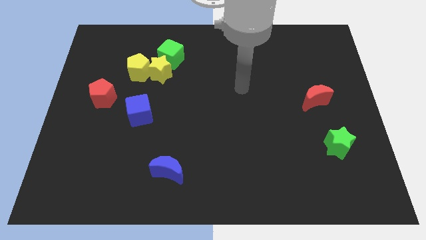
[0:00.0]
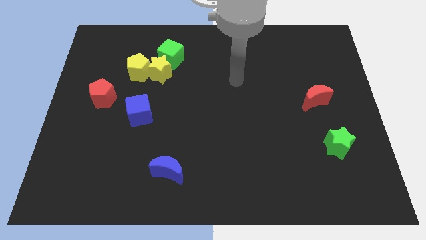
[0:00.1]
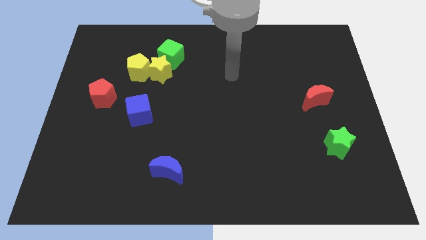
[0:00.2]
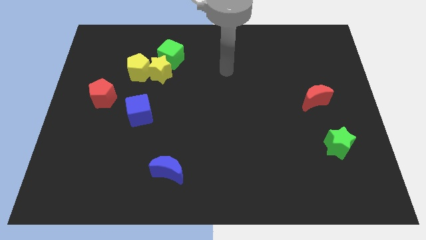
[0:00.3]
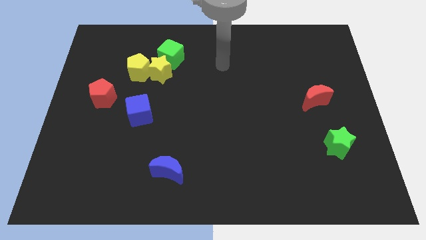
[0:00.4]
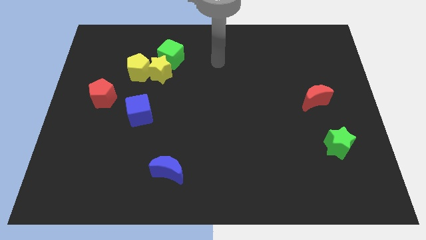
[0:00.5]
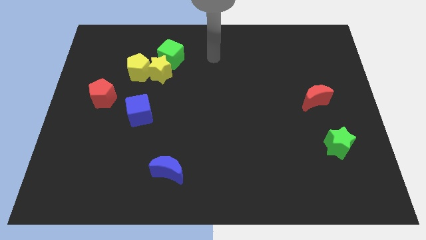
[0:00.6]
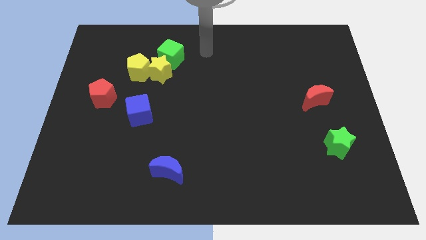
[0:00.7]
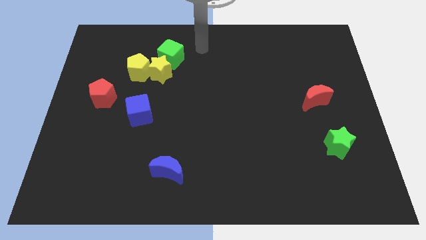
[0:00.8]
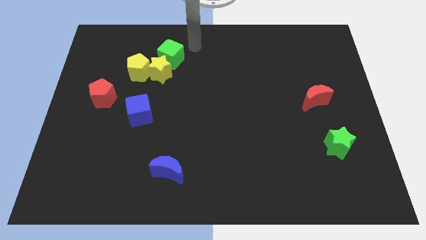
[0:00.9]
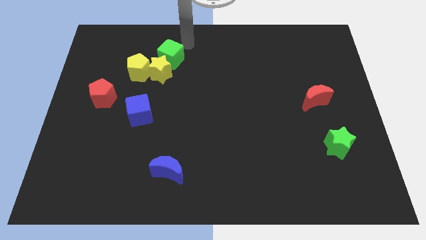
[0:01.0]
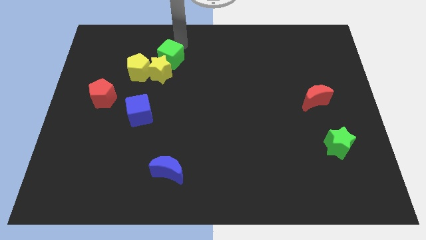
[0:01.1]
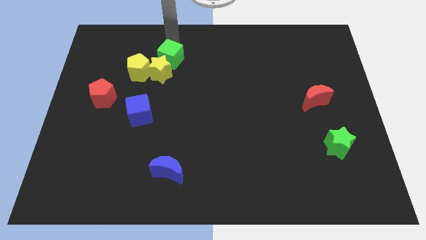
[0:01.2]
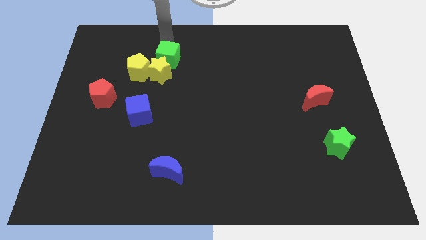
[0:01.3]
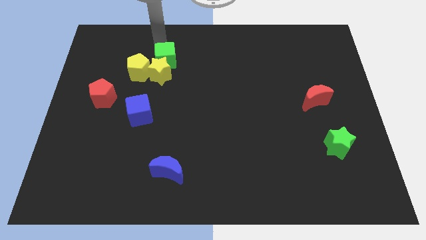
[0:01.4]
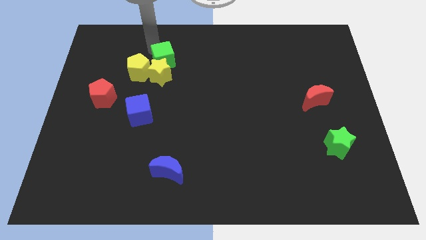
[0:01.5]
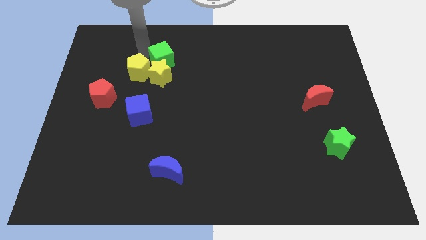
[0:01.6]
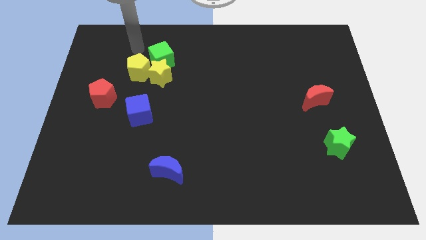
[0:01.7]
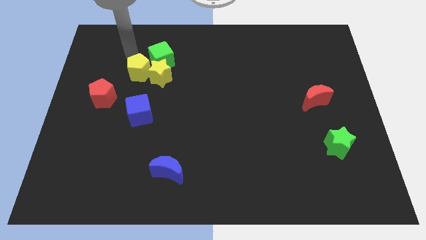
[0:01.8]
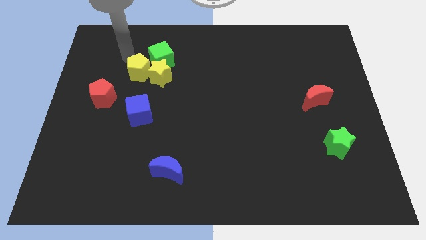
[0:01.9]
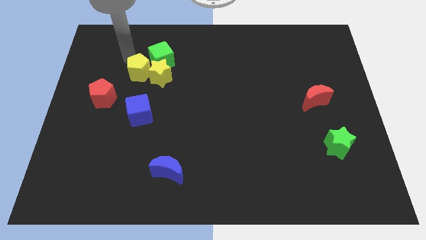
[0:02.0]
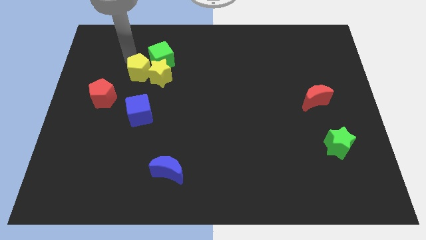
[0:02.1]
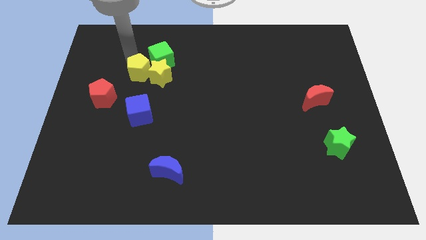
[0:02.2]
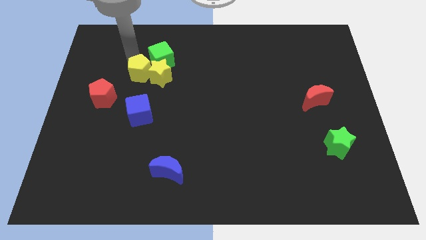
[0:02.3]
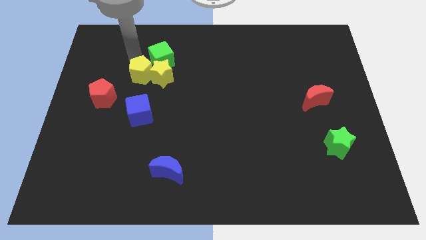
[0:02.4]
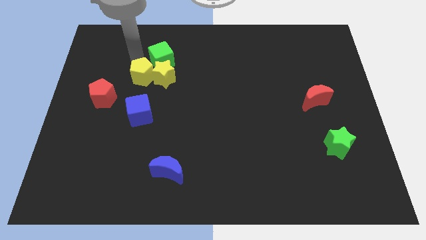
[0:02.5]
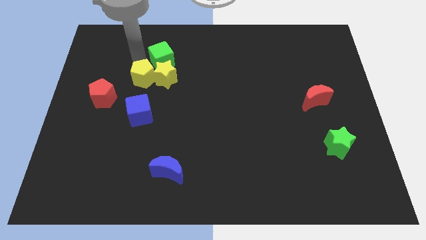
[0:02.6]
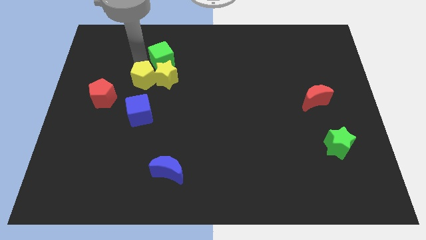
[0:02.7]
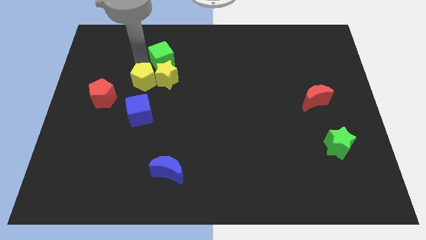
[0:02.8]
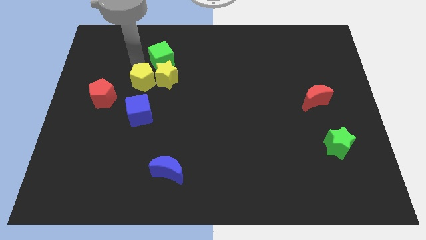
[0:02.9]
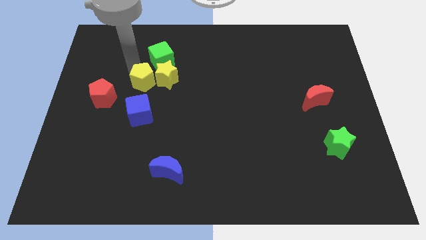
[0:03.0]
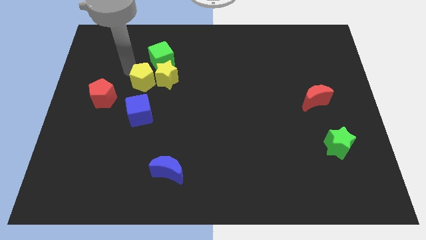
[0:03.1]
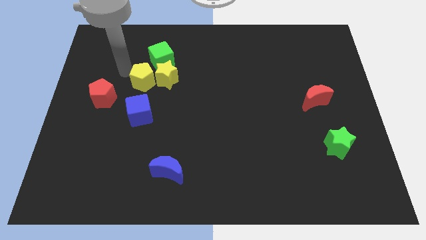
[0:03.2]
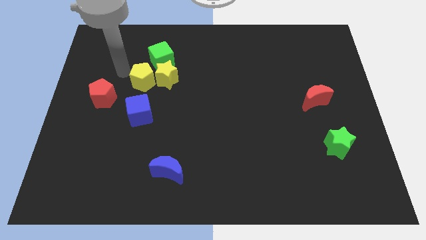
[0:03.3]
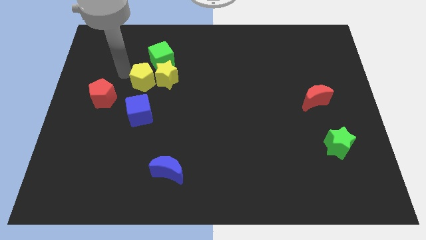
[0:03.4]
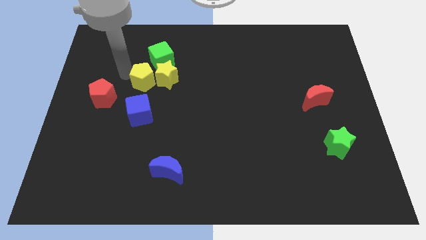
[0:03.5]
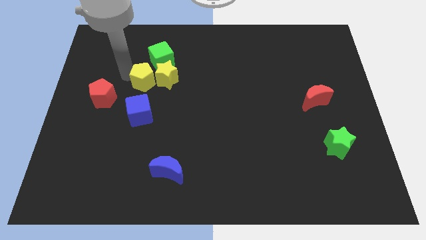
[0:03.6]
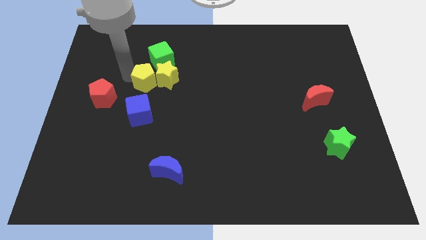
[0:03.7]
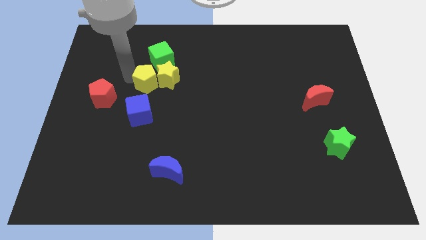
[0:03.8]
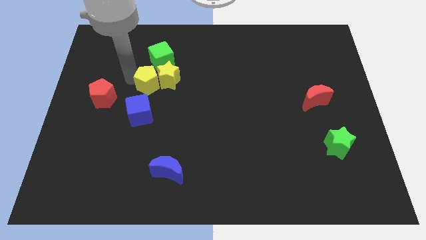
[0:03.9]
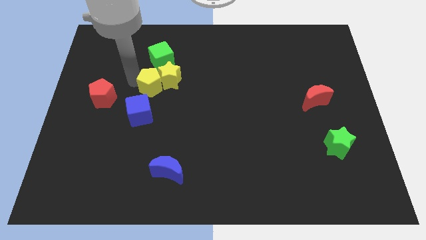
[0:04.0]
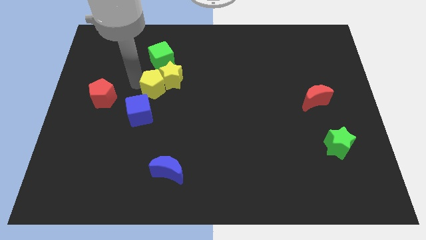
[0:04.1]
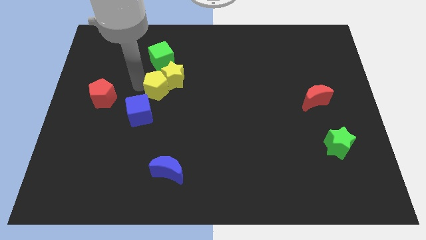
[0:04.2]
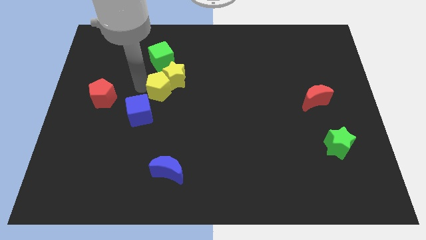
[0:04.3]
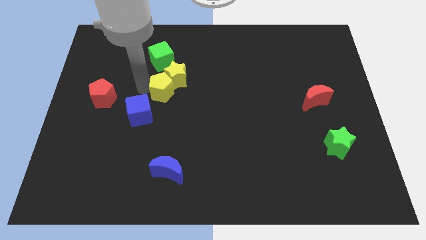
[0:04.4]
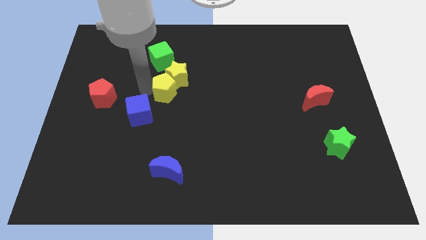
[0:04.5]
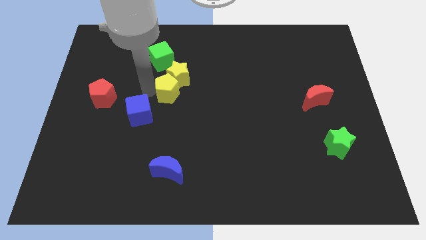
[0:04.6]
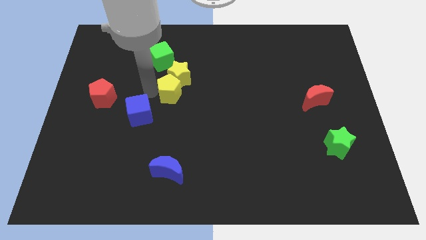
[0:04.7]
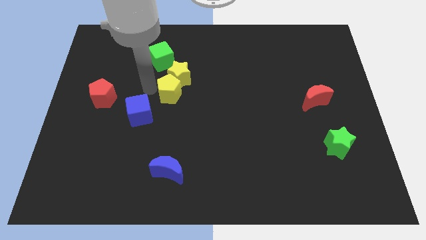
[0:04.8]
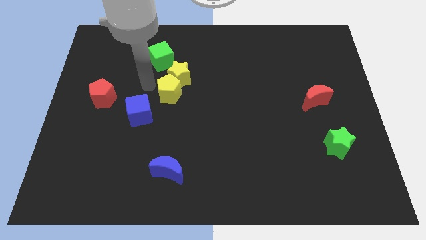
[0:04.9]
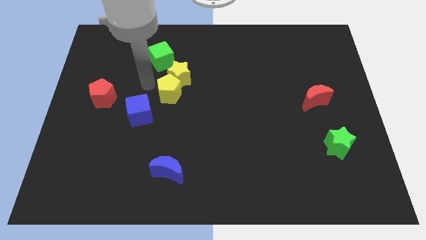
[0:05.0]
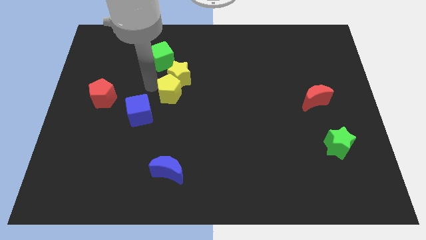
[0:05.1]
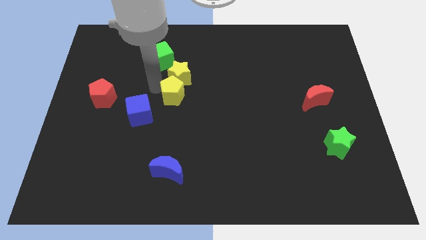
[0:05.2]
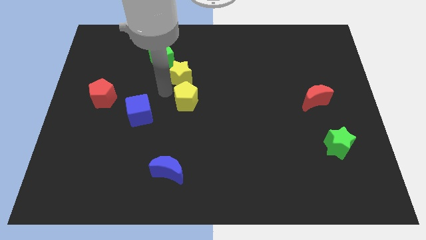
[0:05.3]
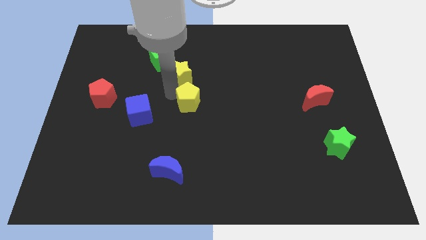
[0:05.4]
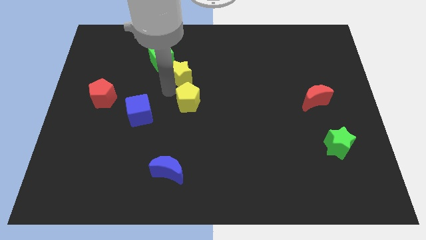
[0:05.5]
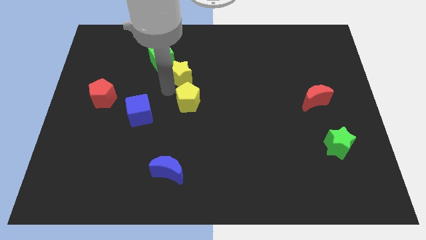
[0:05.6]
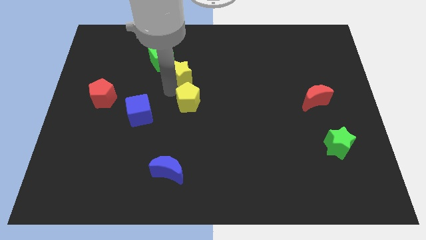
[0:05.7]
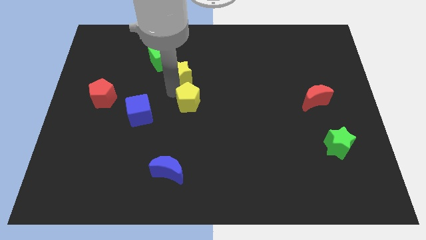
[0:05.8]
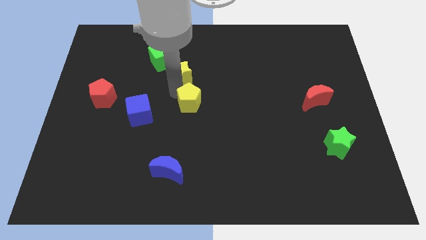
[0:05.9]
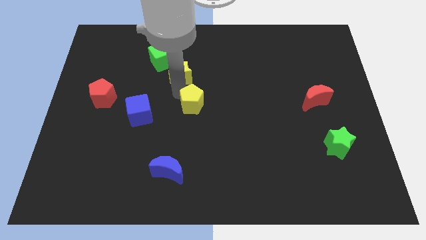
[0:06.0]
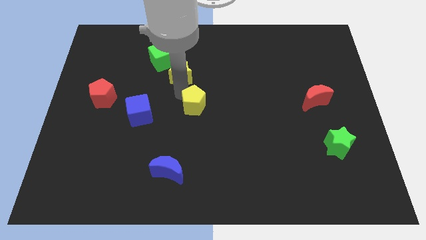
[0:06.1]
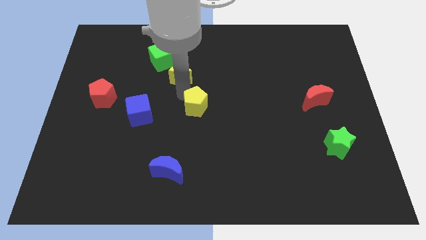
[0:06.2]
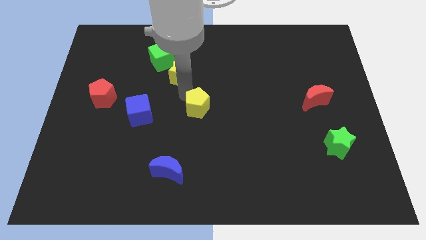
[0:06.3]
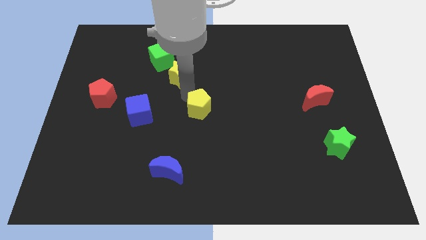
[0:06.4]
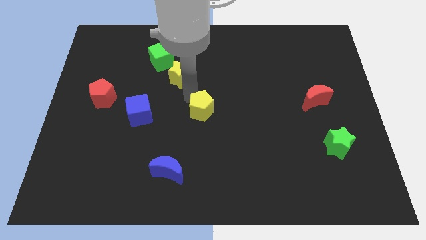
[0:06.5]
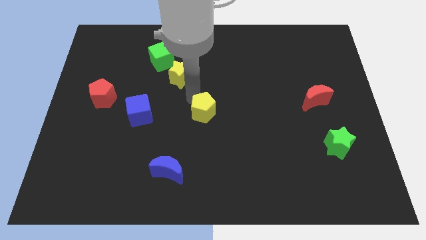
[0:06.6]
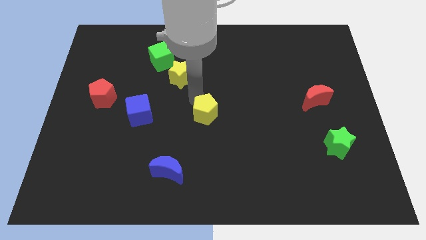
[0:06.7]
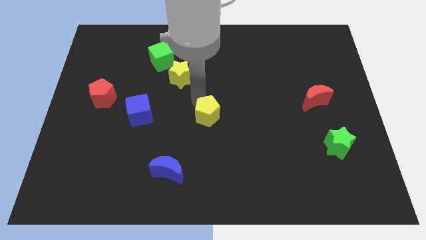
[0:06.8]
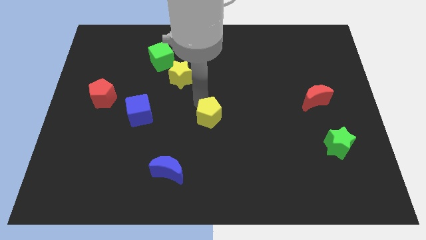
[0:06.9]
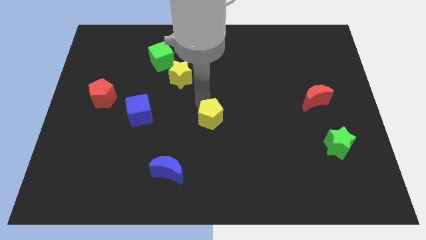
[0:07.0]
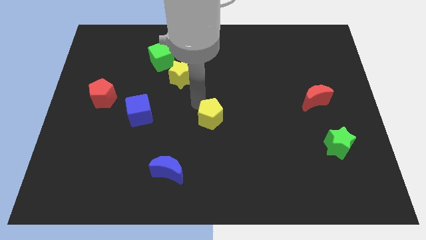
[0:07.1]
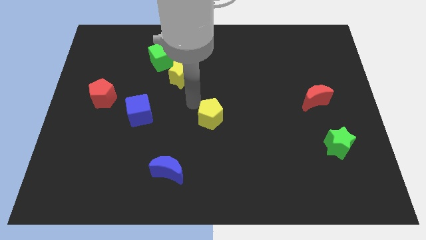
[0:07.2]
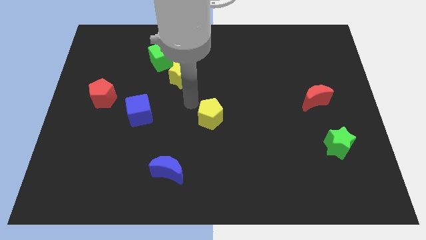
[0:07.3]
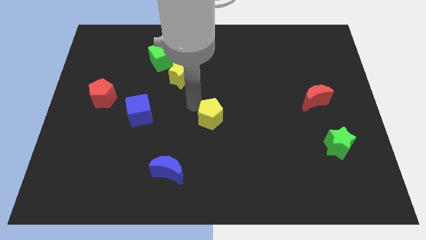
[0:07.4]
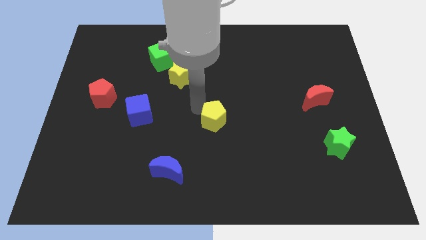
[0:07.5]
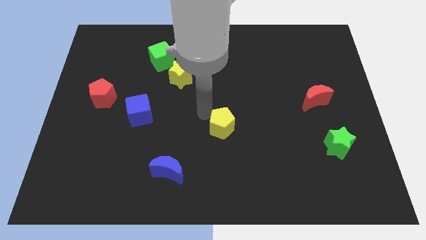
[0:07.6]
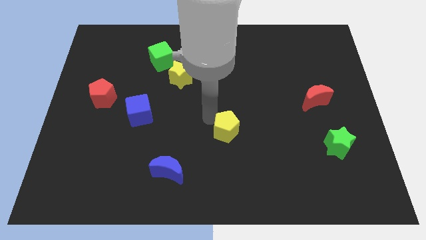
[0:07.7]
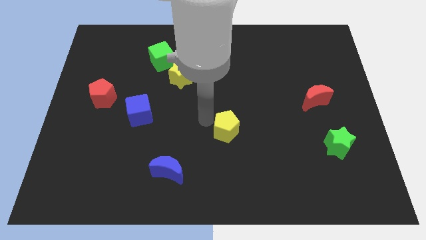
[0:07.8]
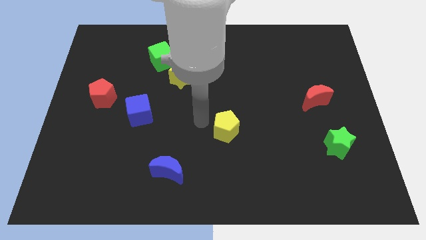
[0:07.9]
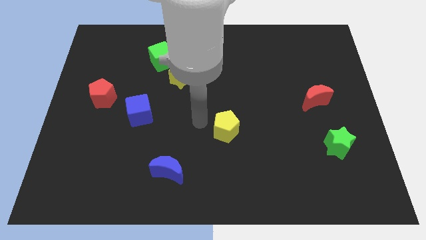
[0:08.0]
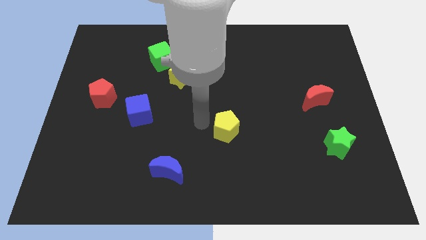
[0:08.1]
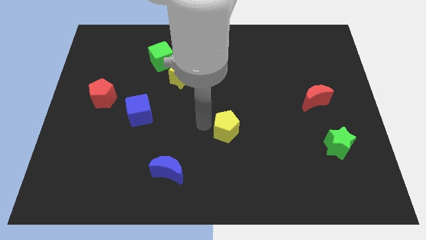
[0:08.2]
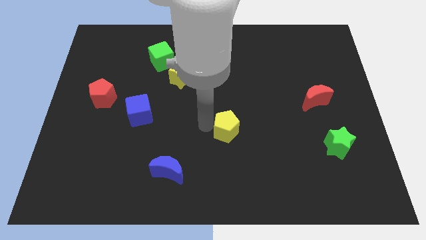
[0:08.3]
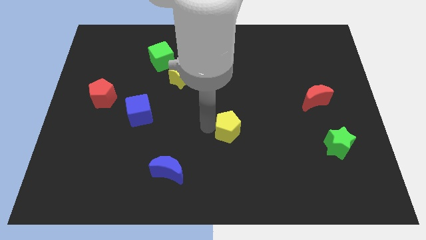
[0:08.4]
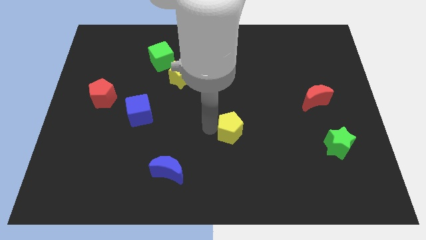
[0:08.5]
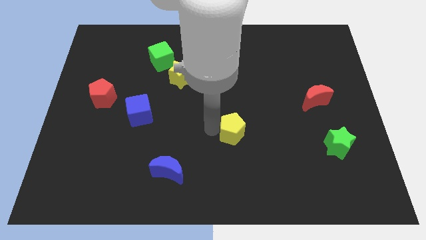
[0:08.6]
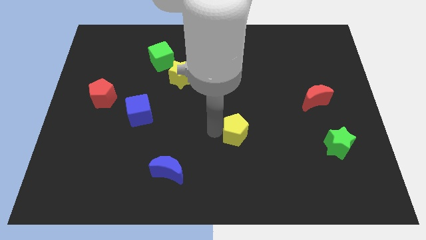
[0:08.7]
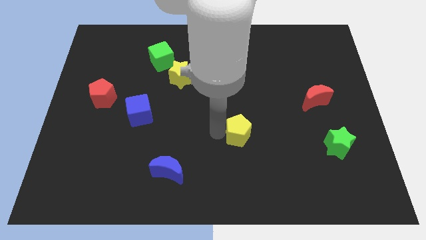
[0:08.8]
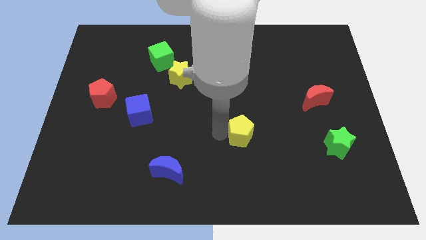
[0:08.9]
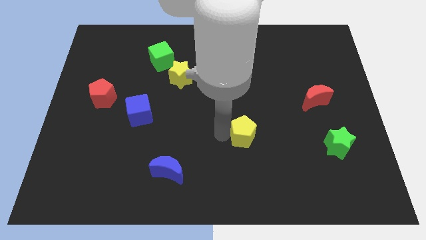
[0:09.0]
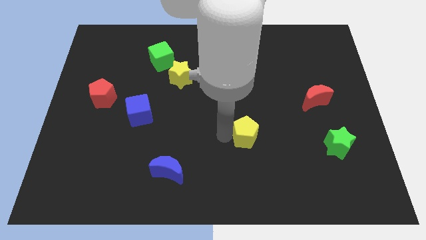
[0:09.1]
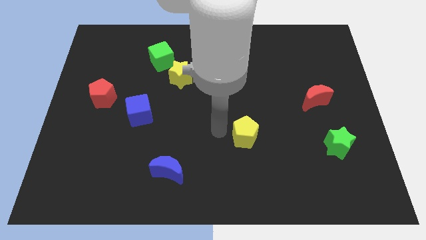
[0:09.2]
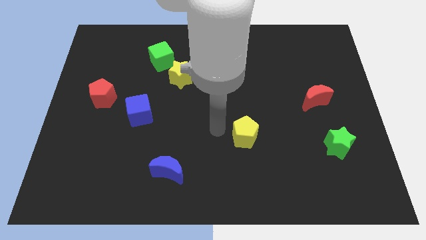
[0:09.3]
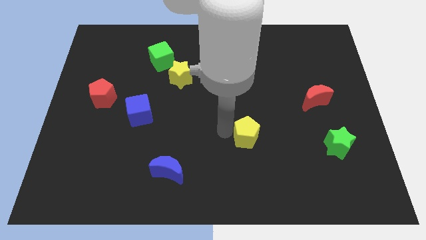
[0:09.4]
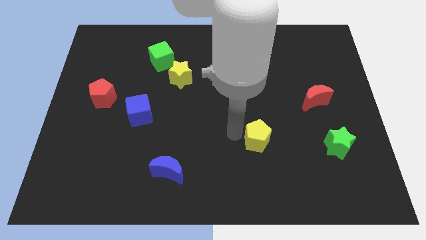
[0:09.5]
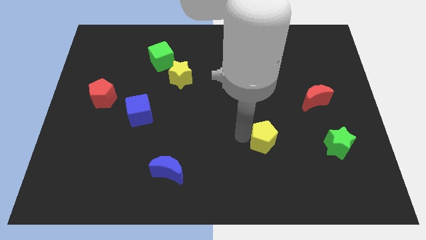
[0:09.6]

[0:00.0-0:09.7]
slide the yellow pentagon just left of the green star
